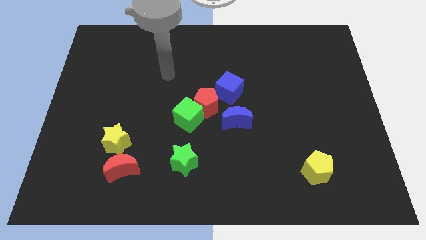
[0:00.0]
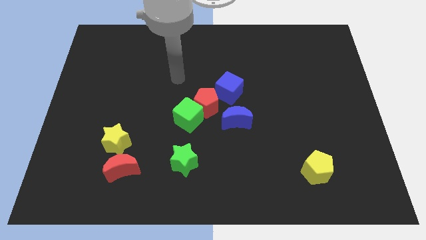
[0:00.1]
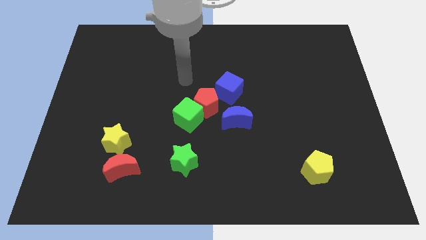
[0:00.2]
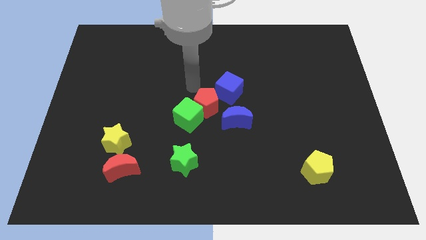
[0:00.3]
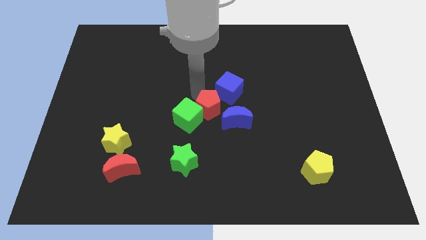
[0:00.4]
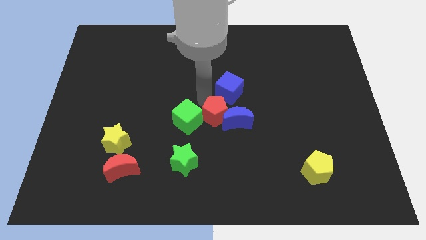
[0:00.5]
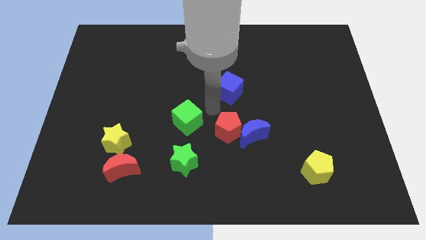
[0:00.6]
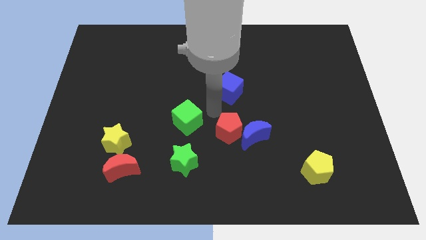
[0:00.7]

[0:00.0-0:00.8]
pull the green cube apart from the red pentagon

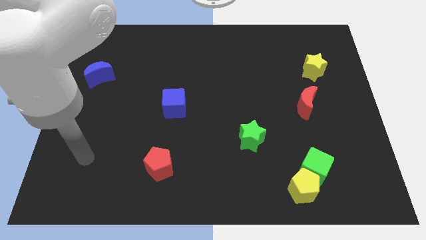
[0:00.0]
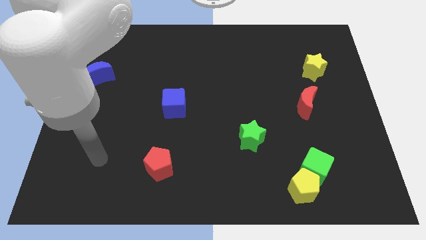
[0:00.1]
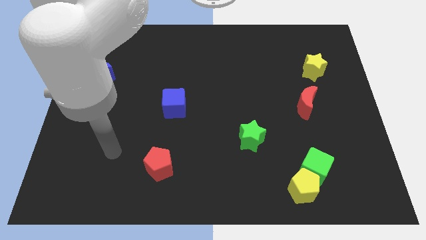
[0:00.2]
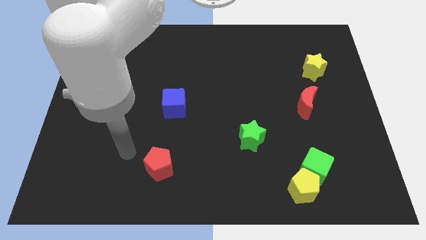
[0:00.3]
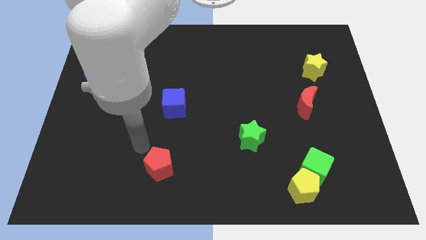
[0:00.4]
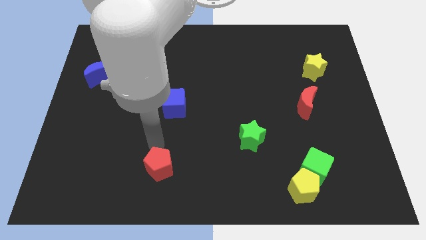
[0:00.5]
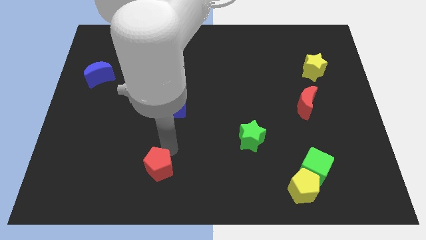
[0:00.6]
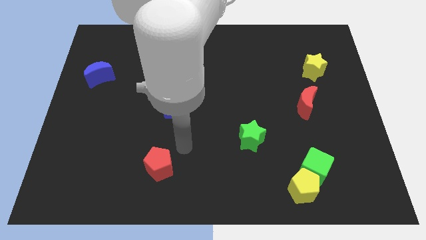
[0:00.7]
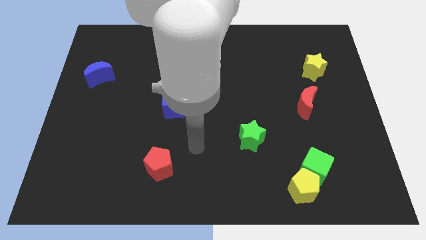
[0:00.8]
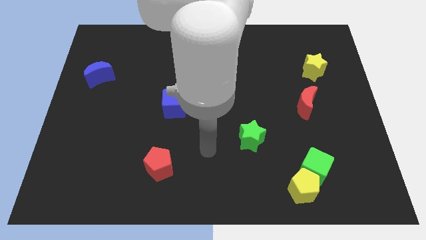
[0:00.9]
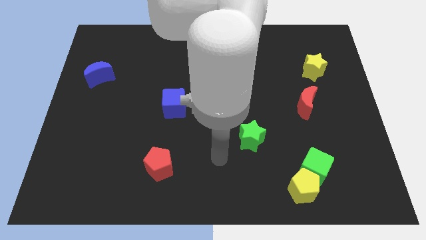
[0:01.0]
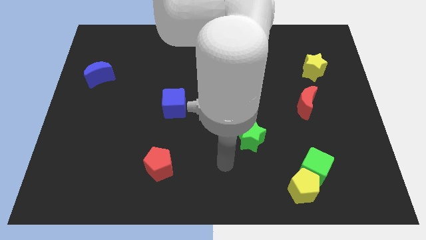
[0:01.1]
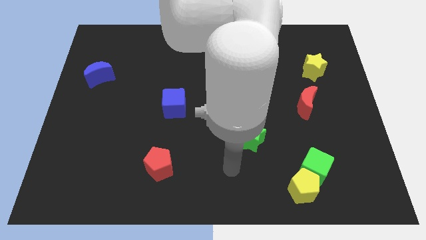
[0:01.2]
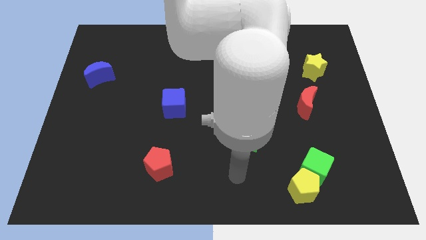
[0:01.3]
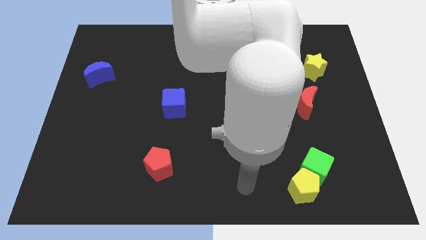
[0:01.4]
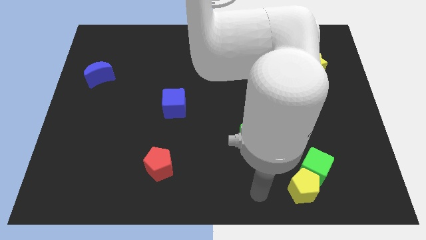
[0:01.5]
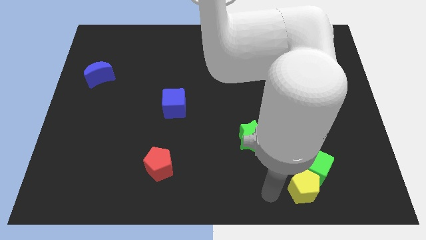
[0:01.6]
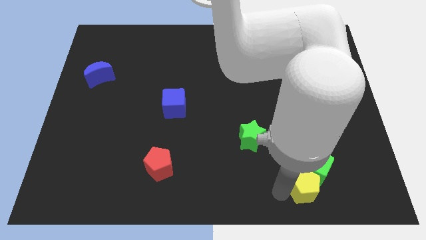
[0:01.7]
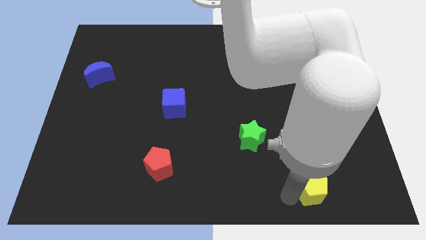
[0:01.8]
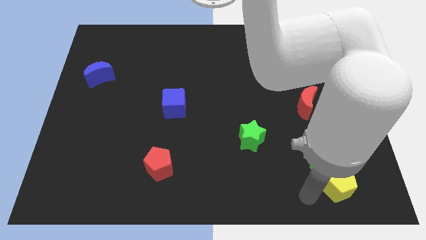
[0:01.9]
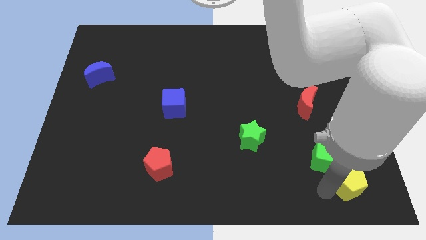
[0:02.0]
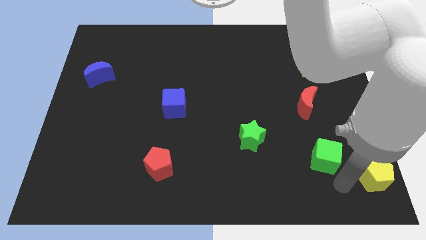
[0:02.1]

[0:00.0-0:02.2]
move the green cube away from the yellow pentagon

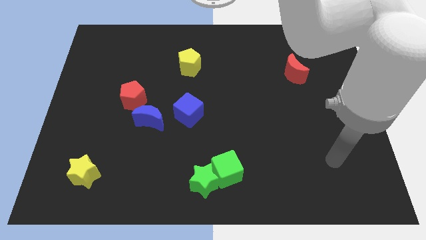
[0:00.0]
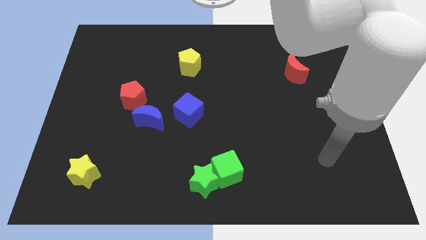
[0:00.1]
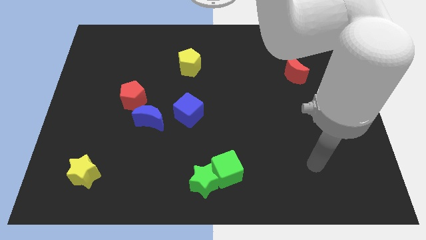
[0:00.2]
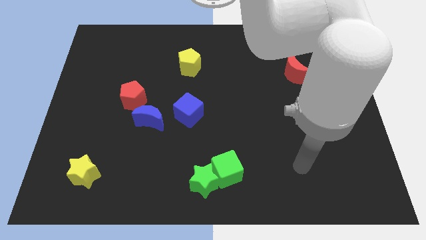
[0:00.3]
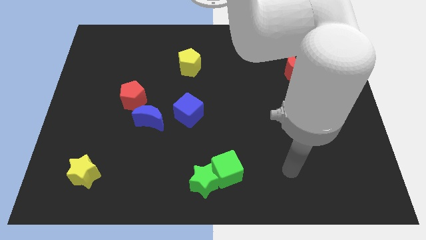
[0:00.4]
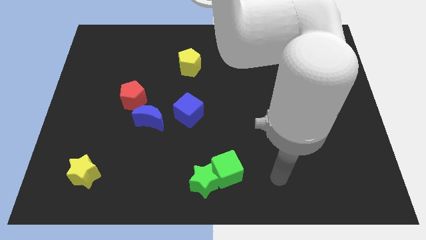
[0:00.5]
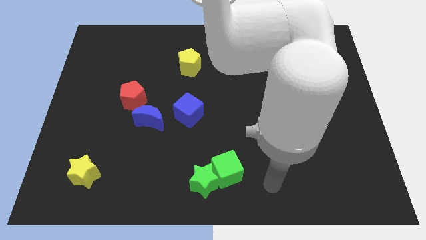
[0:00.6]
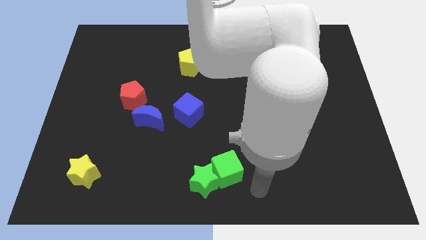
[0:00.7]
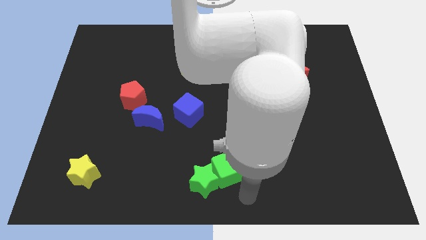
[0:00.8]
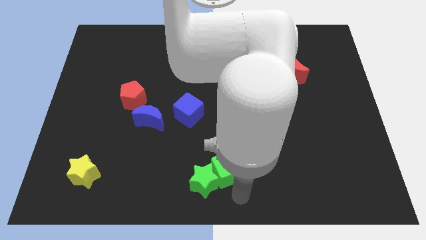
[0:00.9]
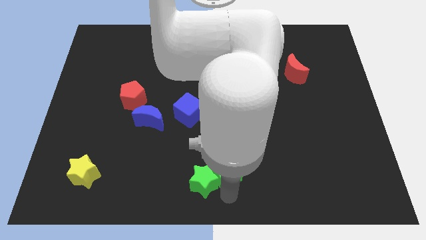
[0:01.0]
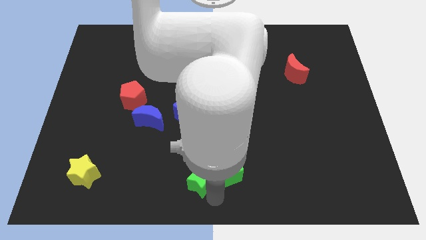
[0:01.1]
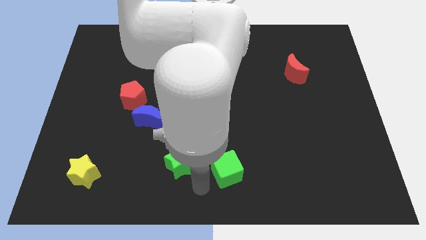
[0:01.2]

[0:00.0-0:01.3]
move the green cube away from the green star

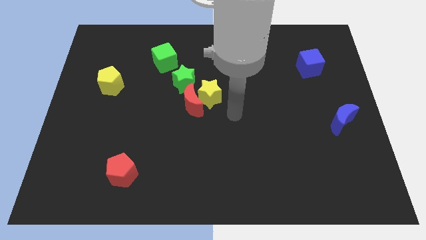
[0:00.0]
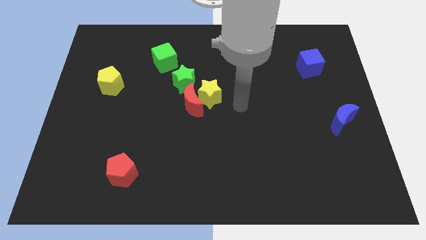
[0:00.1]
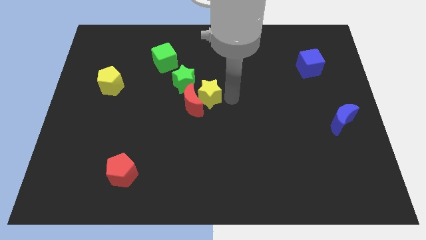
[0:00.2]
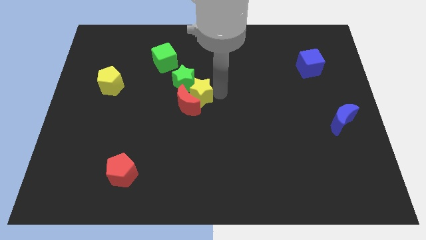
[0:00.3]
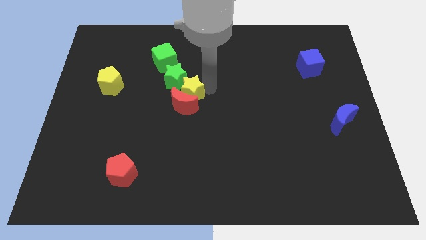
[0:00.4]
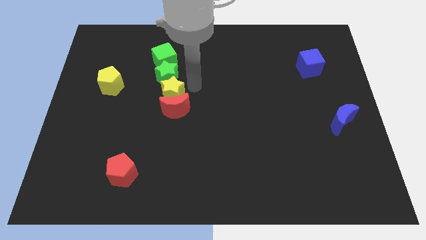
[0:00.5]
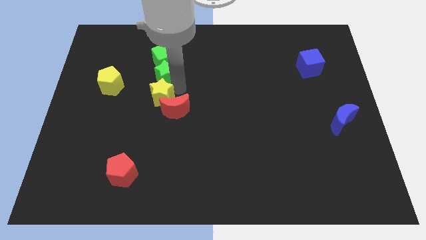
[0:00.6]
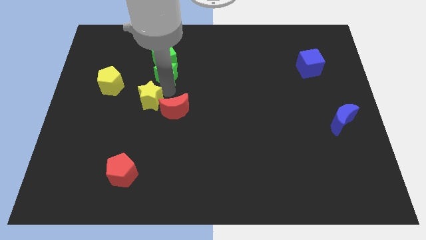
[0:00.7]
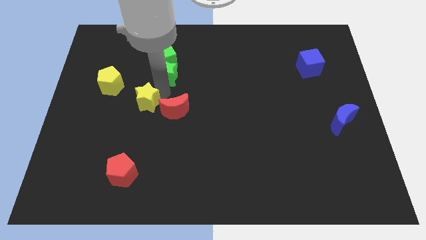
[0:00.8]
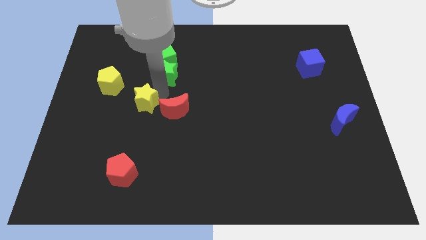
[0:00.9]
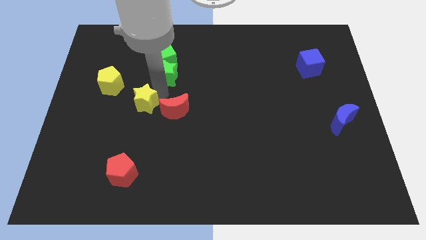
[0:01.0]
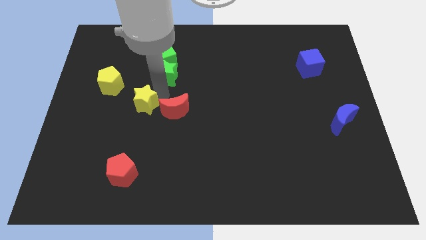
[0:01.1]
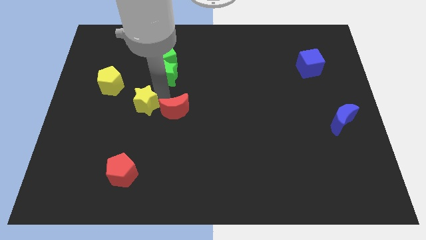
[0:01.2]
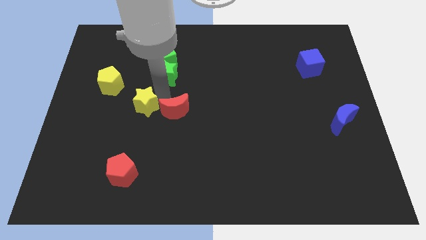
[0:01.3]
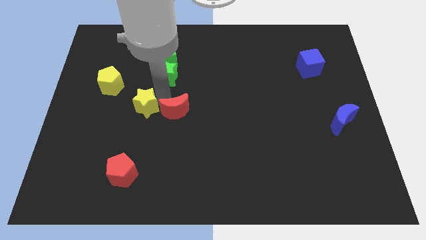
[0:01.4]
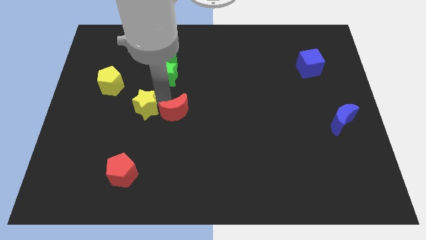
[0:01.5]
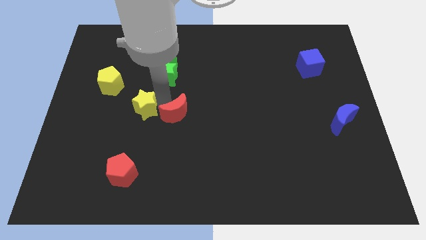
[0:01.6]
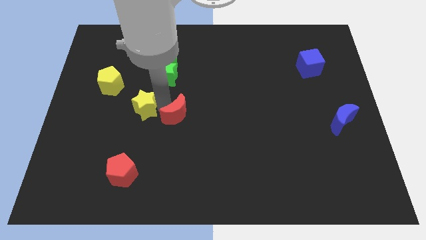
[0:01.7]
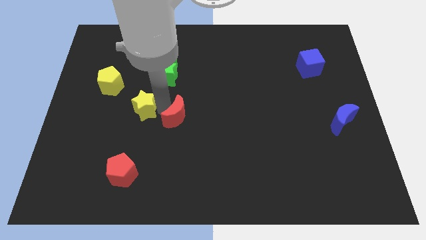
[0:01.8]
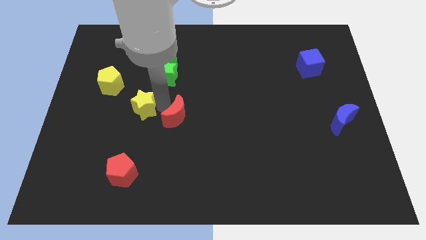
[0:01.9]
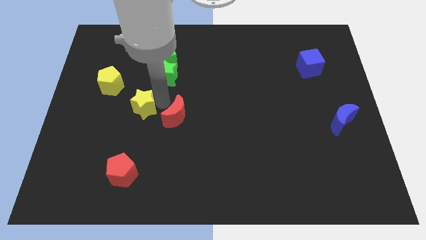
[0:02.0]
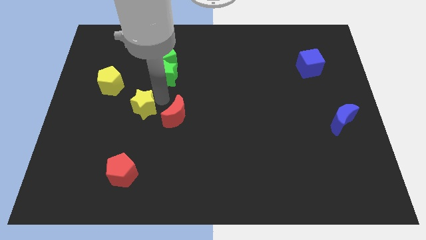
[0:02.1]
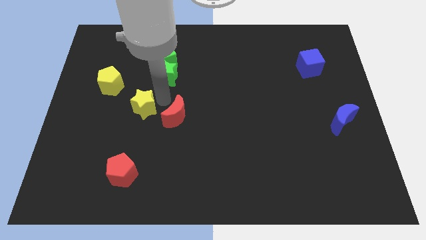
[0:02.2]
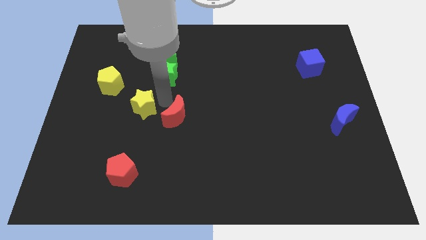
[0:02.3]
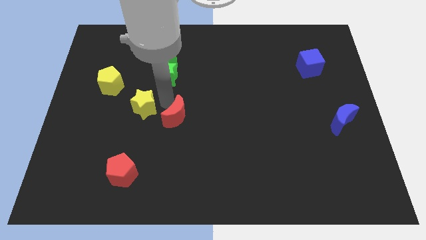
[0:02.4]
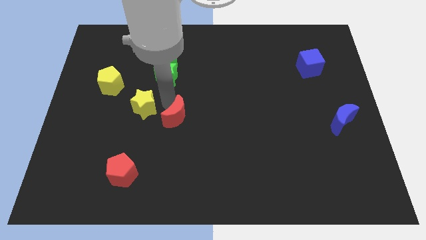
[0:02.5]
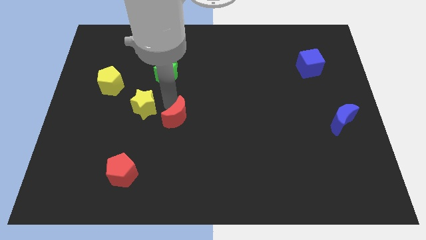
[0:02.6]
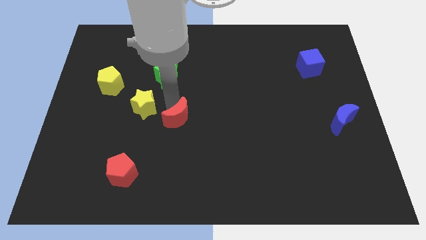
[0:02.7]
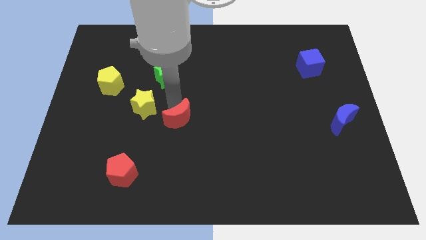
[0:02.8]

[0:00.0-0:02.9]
move the red moon away from the yellow star and green star

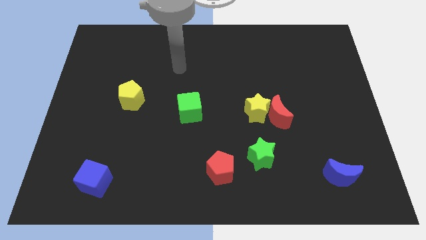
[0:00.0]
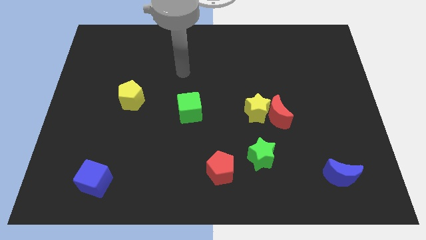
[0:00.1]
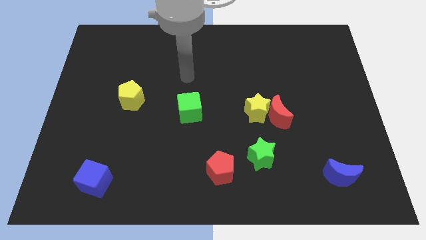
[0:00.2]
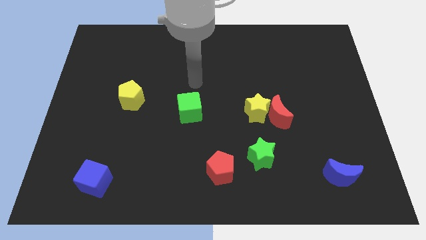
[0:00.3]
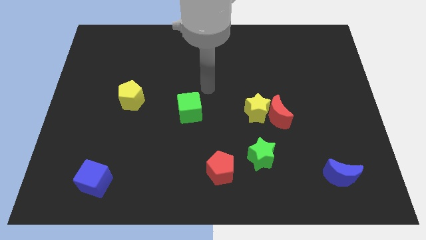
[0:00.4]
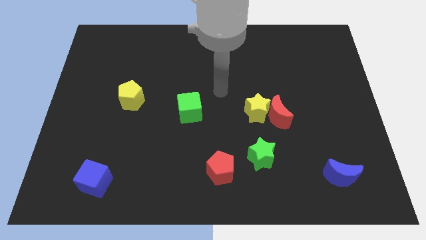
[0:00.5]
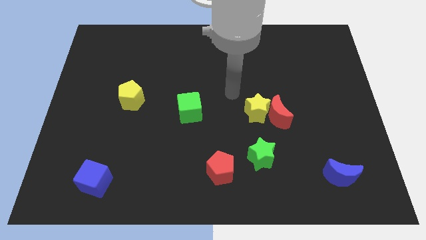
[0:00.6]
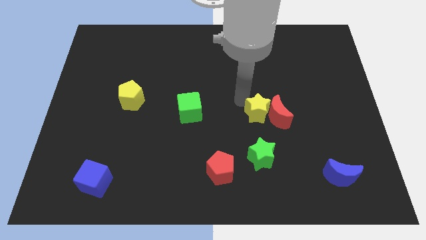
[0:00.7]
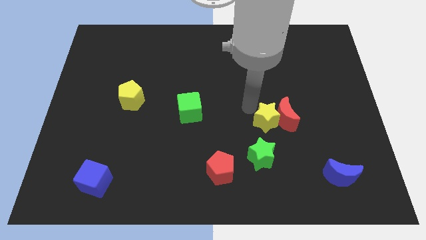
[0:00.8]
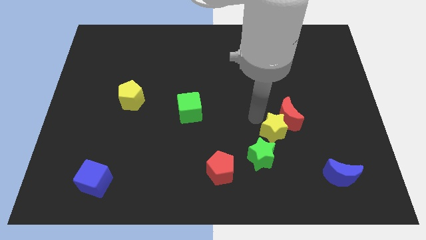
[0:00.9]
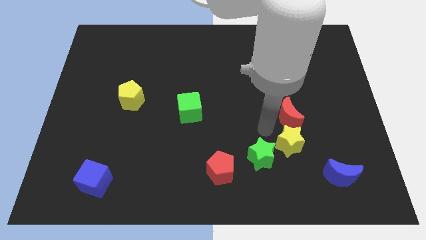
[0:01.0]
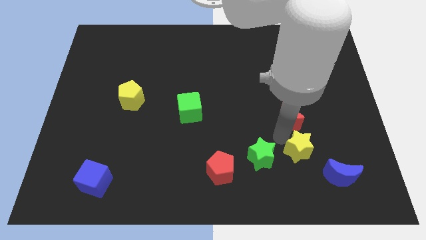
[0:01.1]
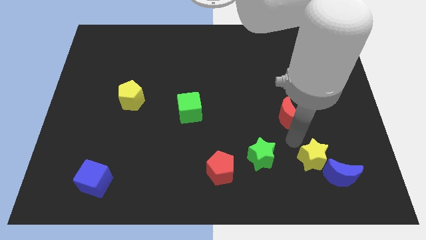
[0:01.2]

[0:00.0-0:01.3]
separate the red moon from the yellow star

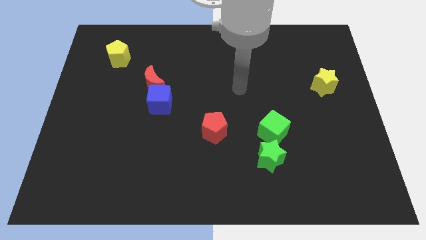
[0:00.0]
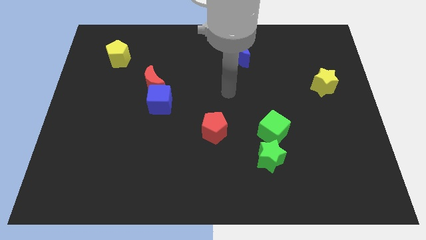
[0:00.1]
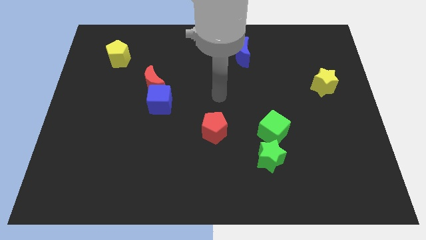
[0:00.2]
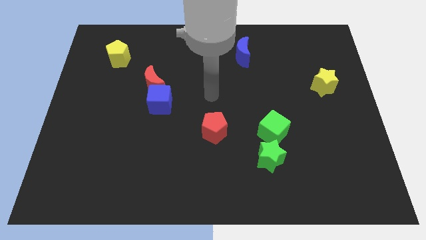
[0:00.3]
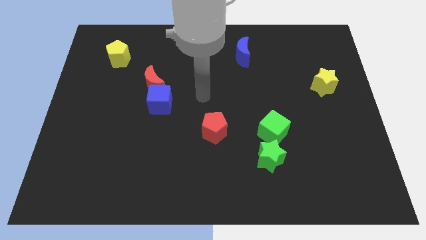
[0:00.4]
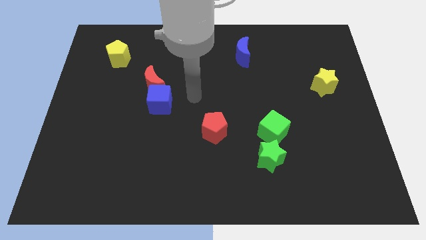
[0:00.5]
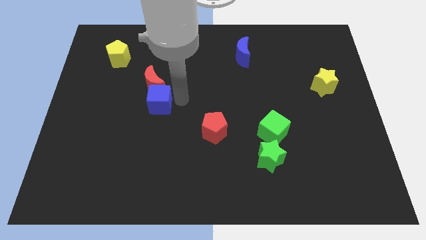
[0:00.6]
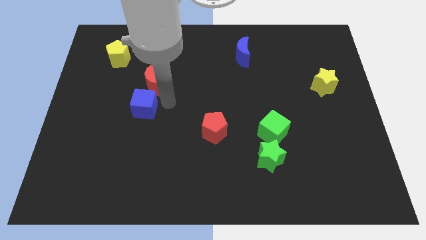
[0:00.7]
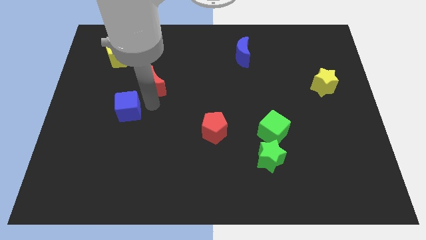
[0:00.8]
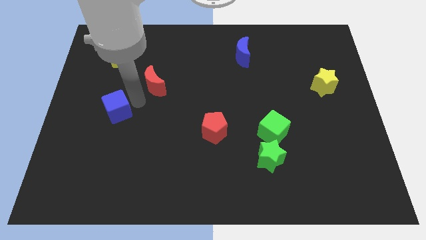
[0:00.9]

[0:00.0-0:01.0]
move the red moon away from the blue cube
